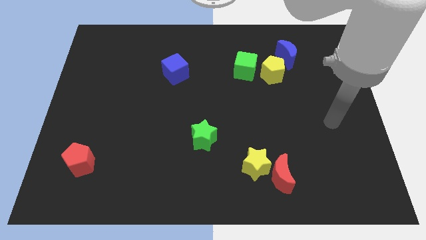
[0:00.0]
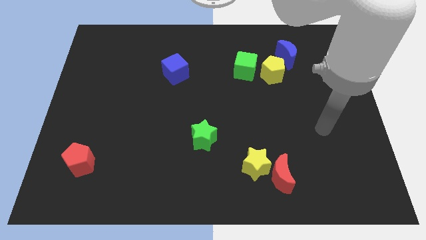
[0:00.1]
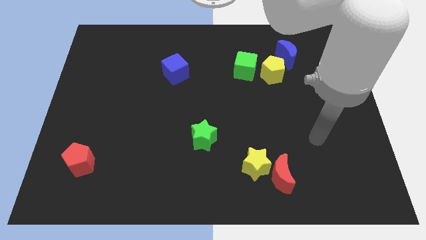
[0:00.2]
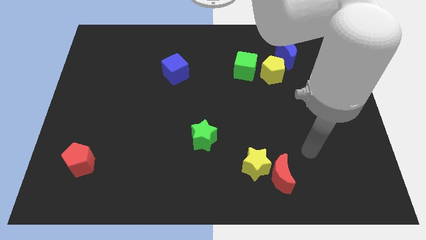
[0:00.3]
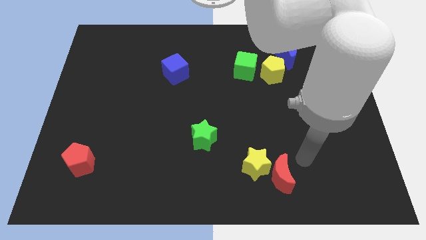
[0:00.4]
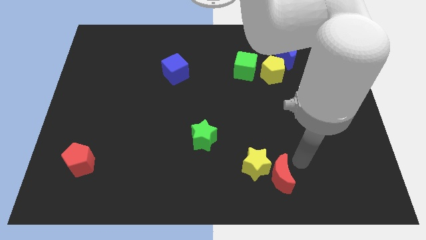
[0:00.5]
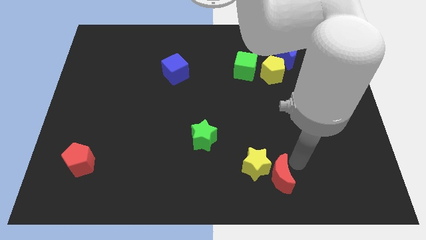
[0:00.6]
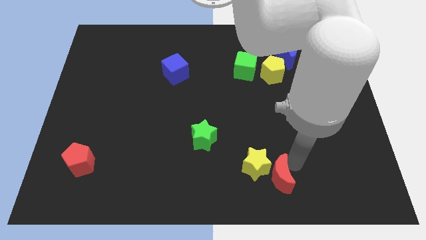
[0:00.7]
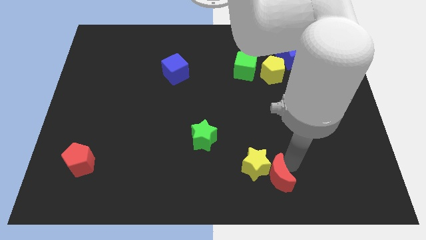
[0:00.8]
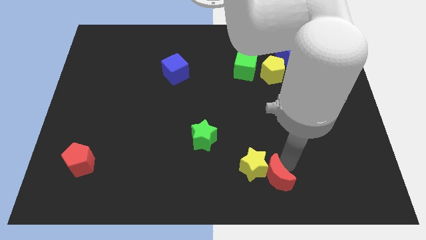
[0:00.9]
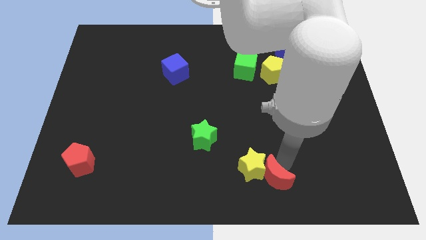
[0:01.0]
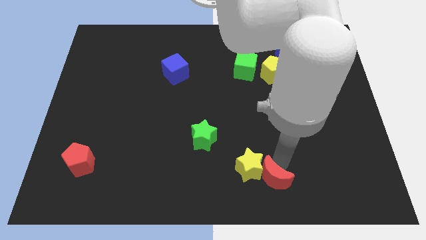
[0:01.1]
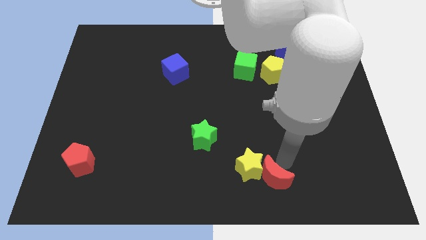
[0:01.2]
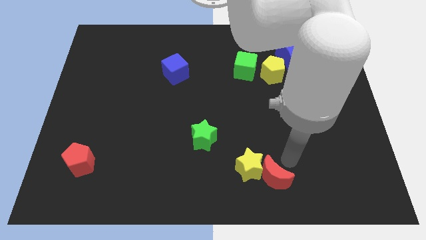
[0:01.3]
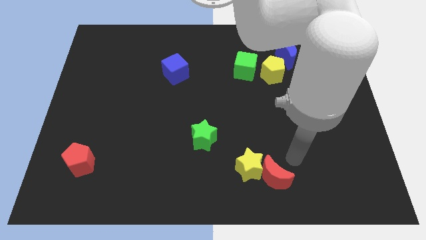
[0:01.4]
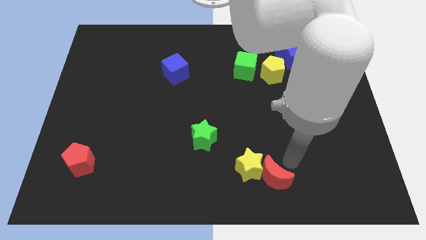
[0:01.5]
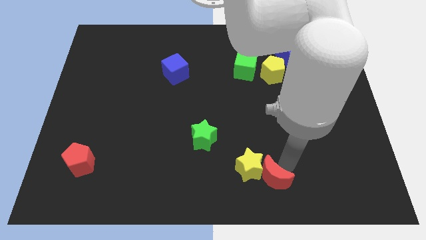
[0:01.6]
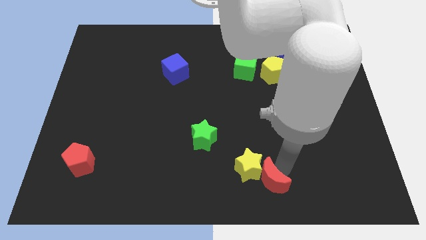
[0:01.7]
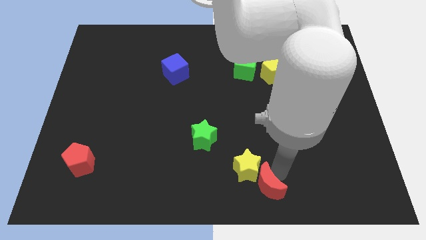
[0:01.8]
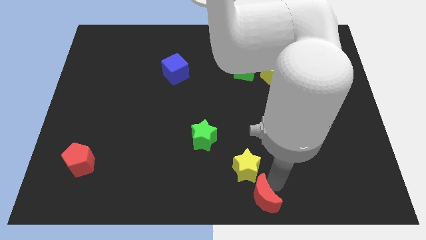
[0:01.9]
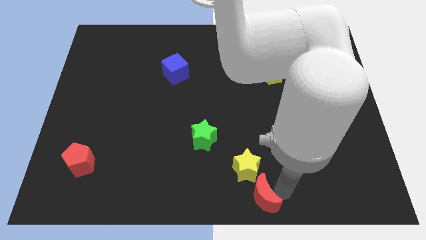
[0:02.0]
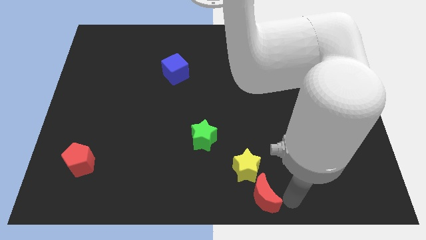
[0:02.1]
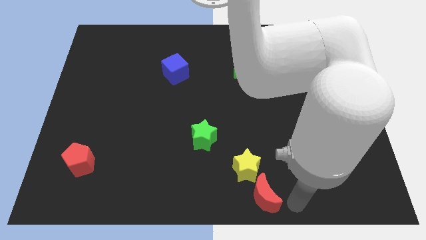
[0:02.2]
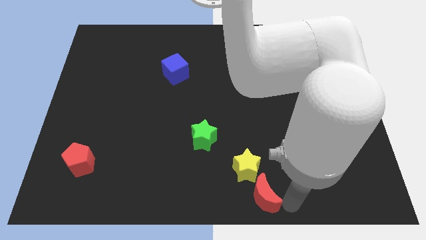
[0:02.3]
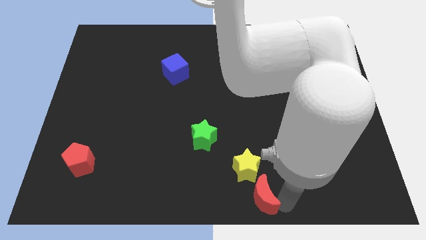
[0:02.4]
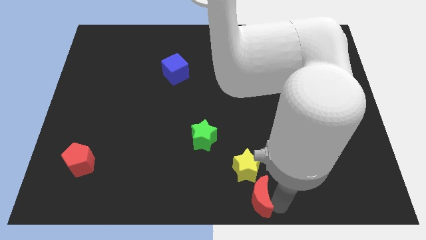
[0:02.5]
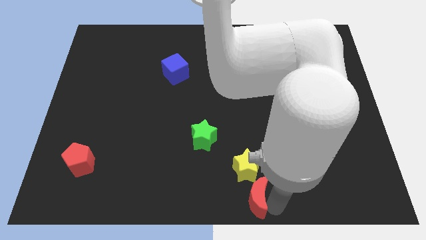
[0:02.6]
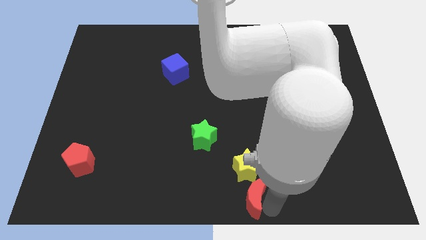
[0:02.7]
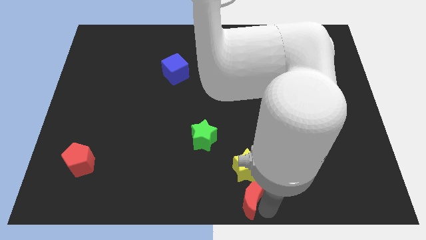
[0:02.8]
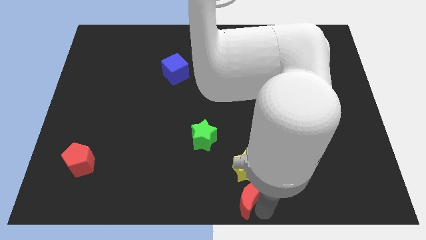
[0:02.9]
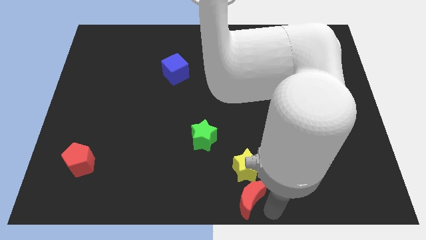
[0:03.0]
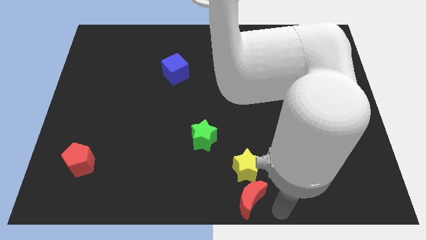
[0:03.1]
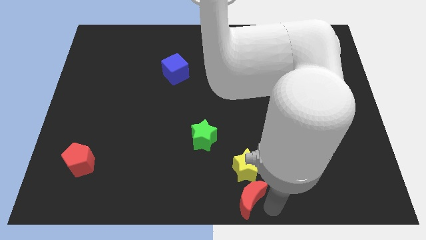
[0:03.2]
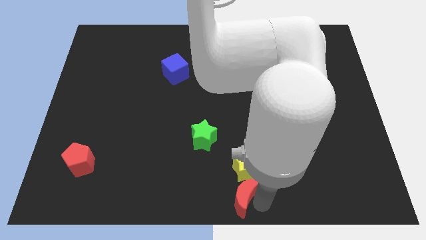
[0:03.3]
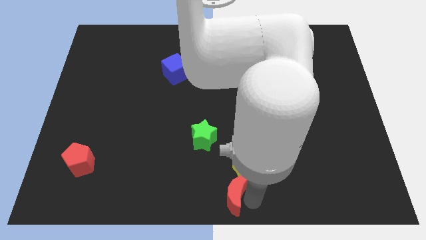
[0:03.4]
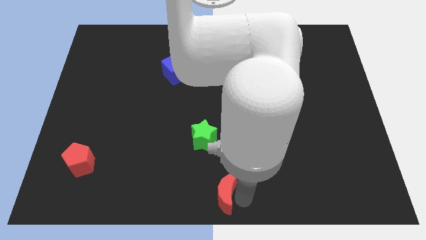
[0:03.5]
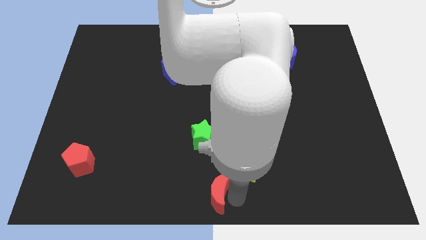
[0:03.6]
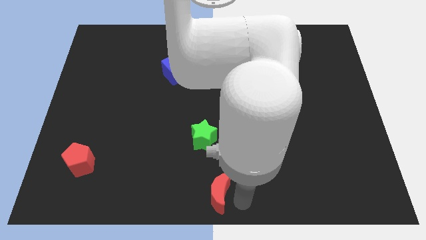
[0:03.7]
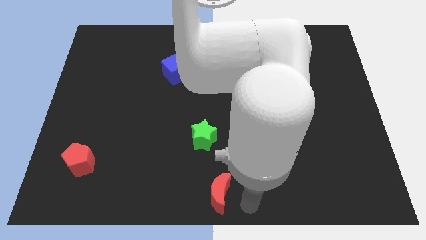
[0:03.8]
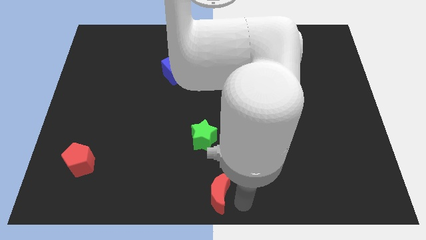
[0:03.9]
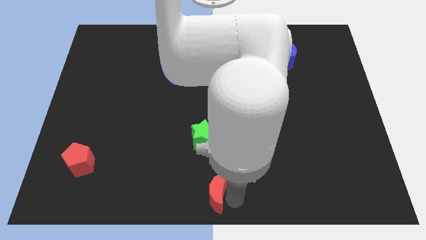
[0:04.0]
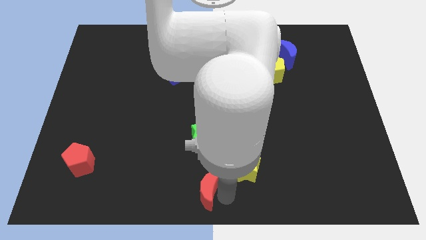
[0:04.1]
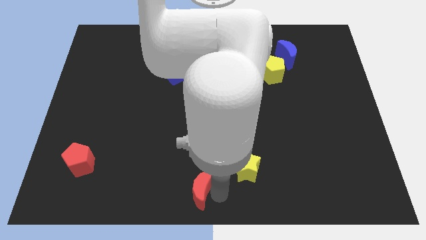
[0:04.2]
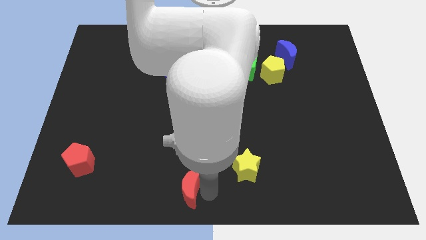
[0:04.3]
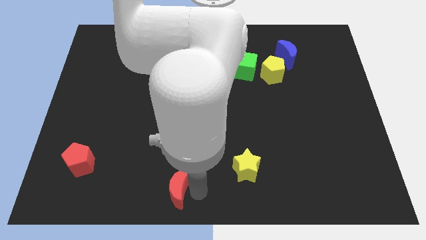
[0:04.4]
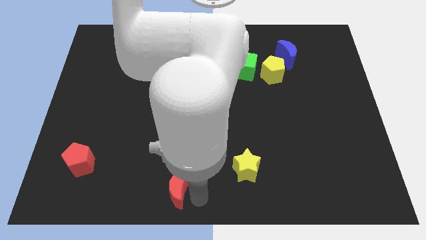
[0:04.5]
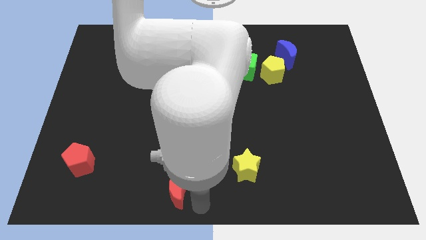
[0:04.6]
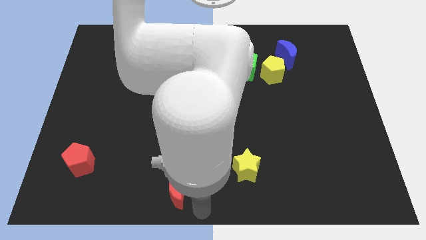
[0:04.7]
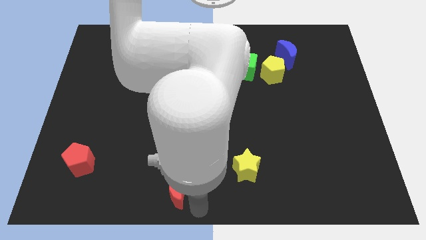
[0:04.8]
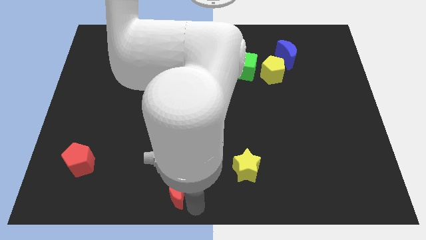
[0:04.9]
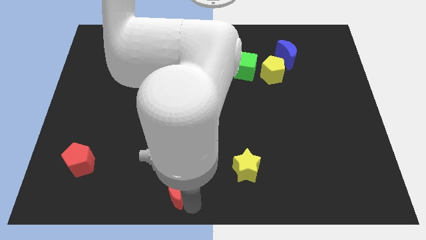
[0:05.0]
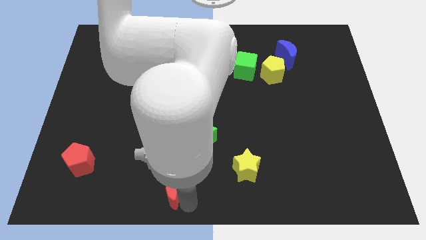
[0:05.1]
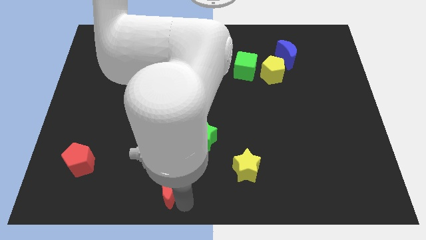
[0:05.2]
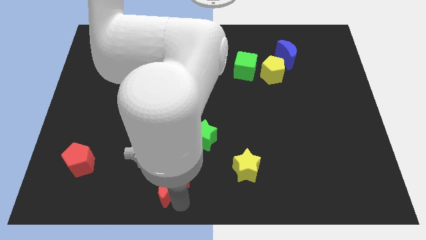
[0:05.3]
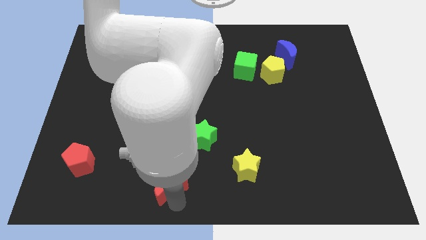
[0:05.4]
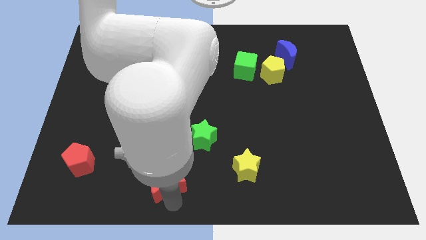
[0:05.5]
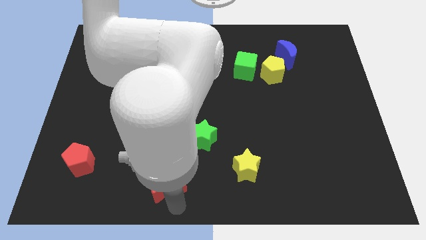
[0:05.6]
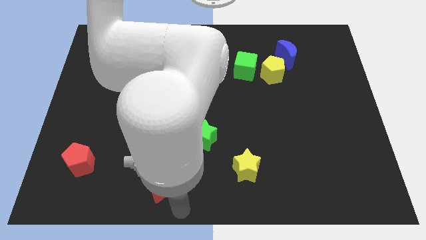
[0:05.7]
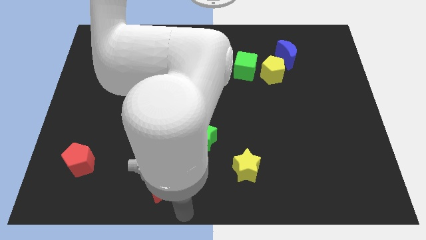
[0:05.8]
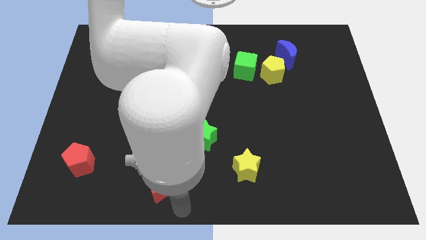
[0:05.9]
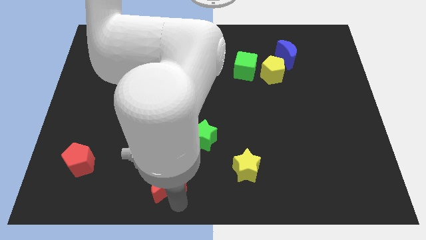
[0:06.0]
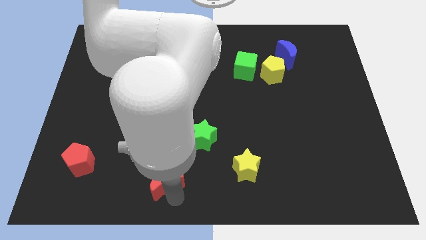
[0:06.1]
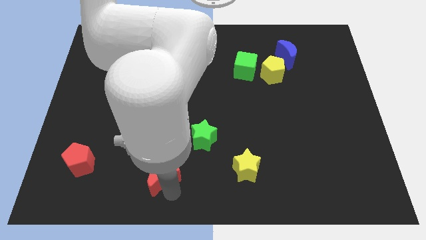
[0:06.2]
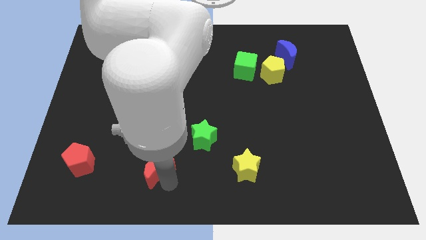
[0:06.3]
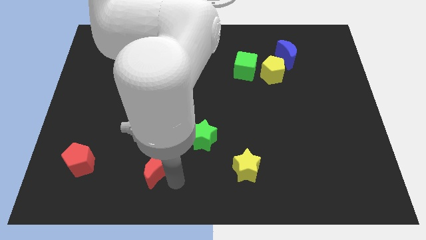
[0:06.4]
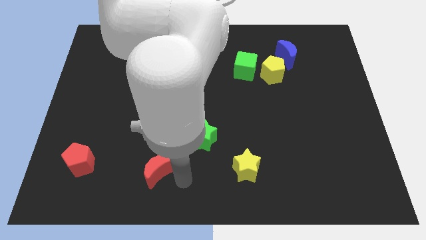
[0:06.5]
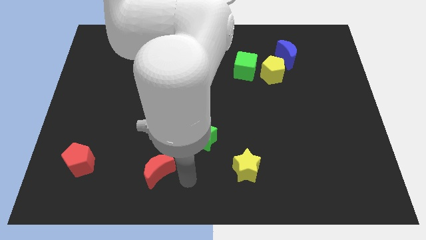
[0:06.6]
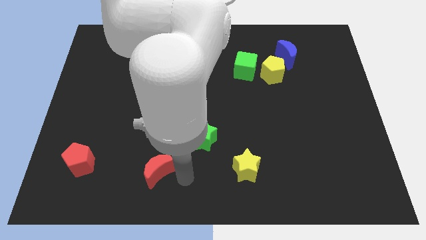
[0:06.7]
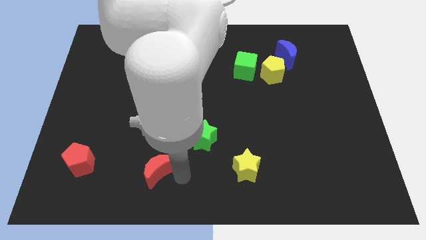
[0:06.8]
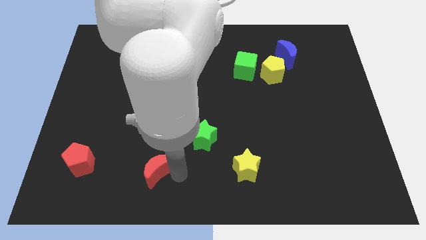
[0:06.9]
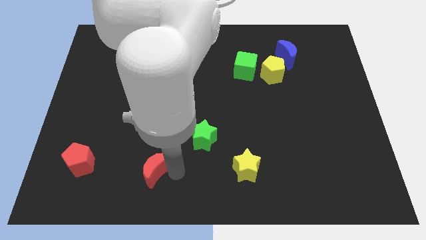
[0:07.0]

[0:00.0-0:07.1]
push the red moon right of the red pentagon
